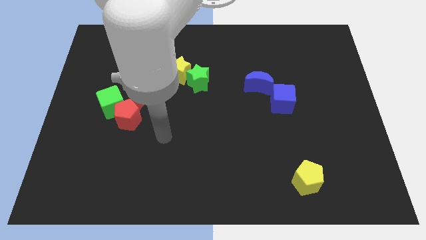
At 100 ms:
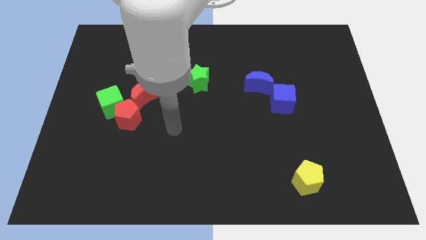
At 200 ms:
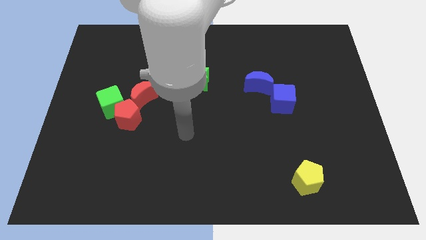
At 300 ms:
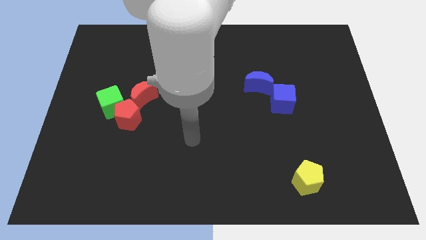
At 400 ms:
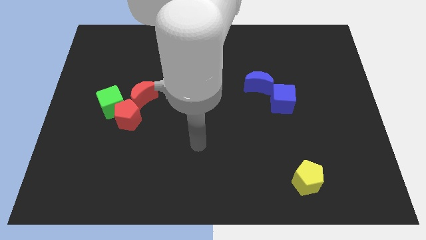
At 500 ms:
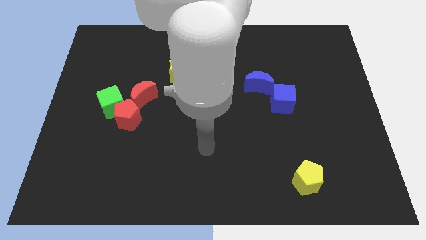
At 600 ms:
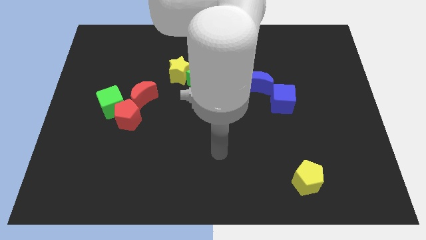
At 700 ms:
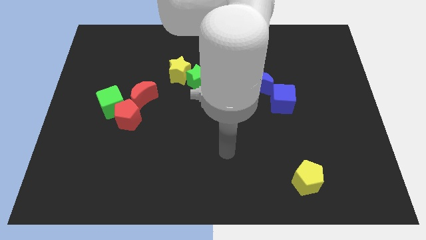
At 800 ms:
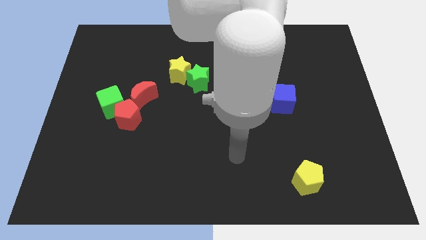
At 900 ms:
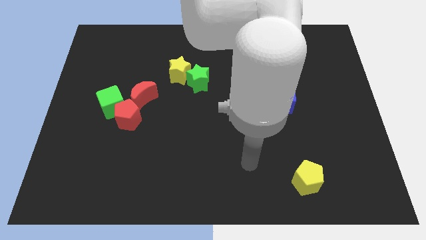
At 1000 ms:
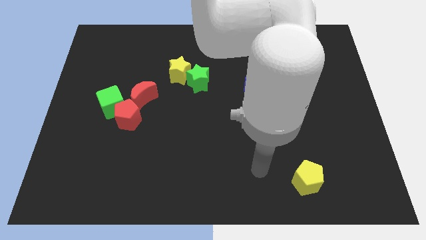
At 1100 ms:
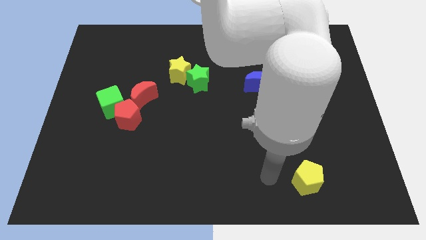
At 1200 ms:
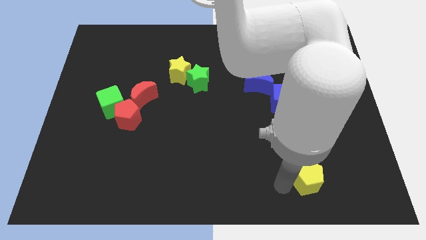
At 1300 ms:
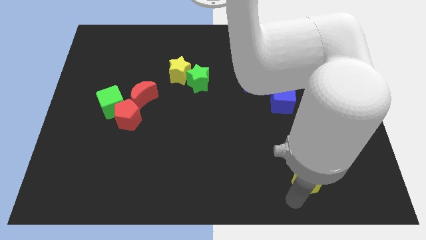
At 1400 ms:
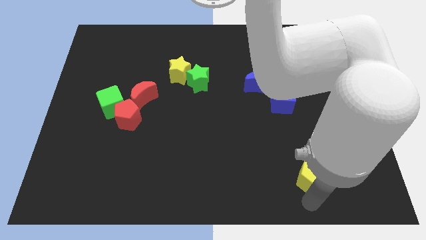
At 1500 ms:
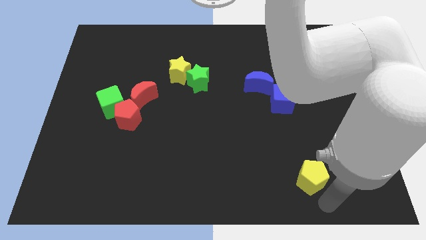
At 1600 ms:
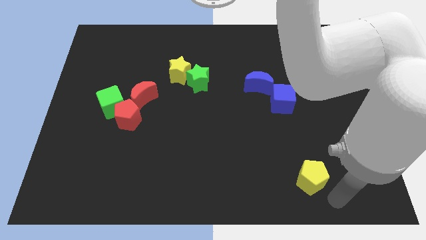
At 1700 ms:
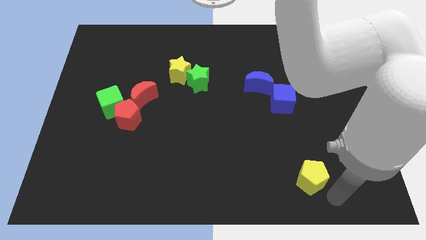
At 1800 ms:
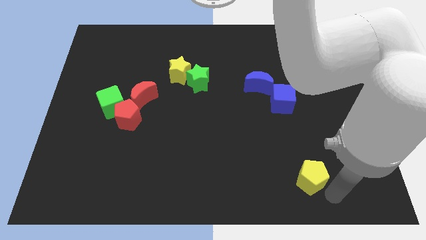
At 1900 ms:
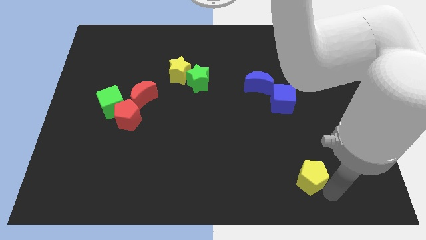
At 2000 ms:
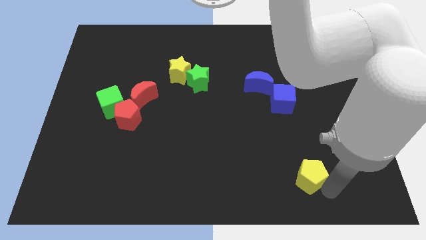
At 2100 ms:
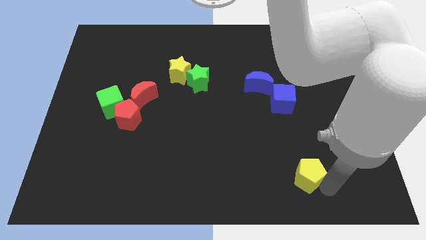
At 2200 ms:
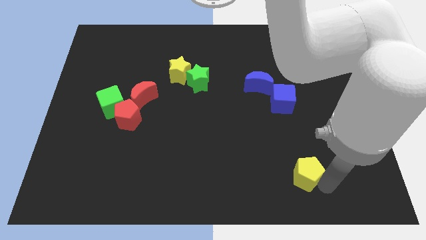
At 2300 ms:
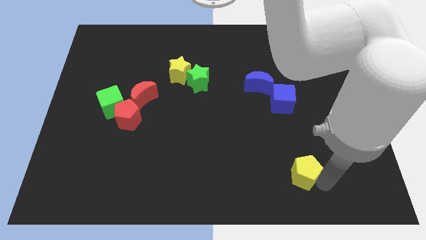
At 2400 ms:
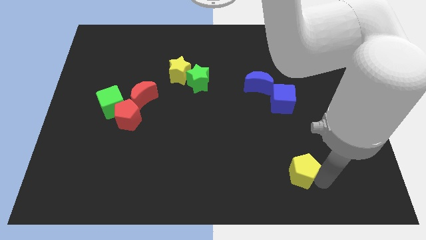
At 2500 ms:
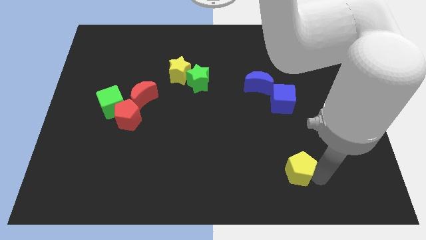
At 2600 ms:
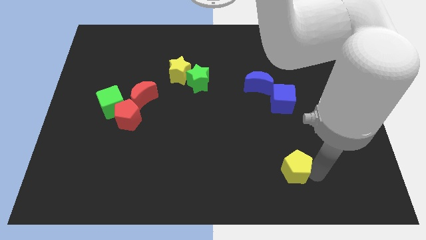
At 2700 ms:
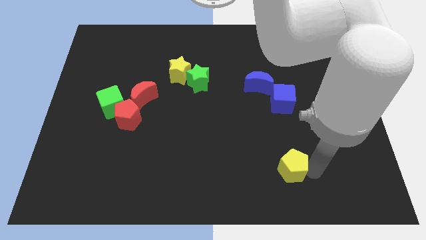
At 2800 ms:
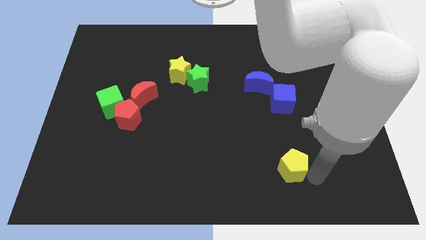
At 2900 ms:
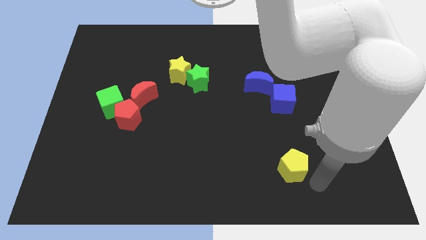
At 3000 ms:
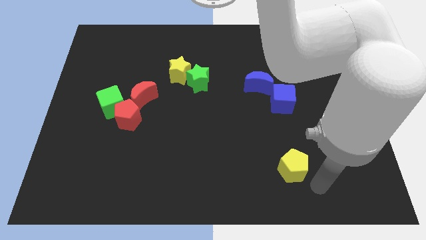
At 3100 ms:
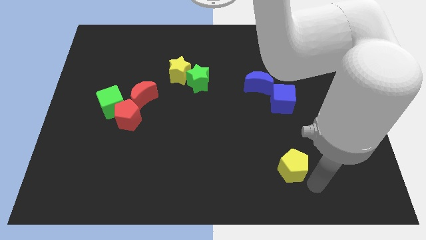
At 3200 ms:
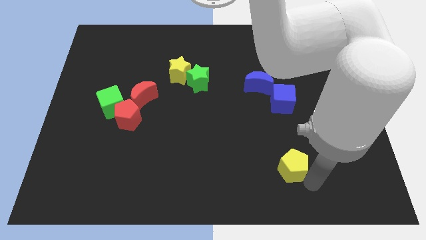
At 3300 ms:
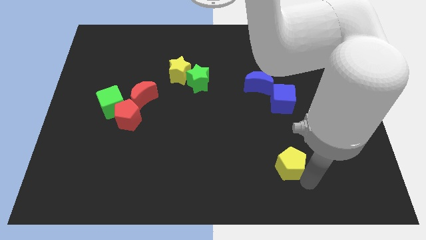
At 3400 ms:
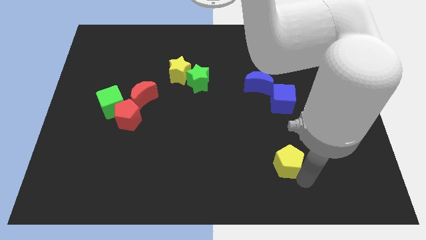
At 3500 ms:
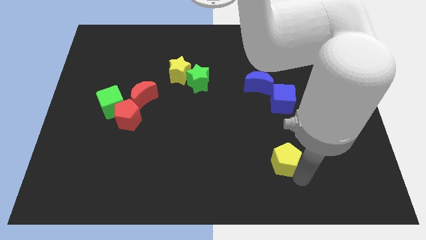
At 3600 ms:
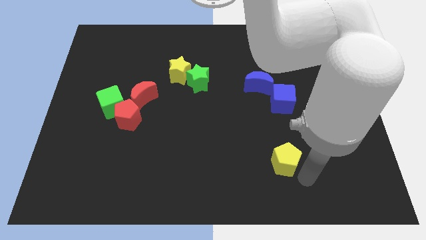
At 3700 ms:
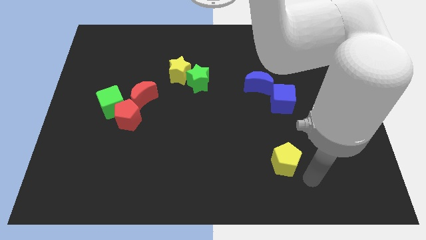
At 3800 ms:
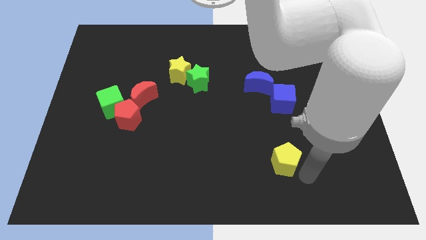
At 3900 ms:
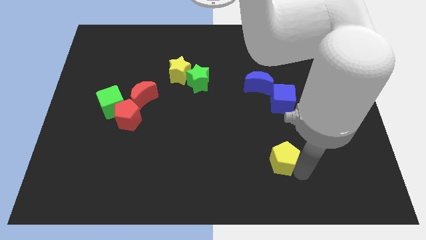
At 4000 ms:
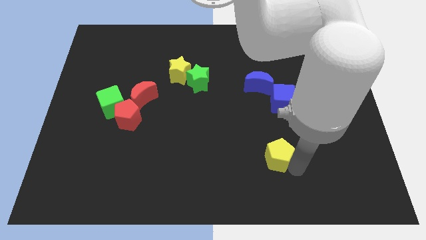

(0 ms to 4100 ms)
slightly move the yellow pentagon up and left diagonally

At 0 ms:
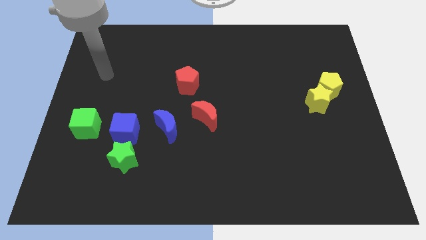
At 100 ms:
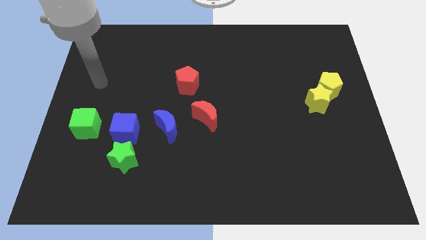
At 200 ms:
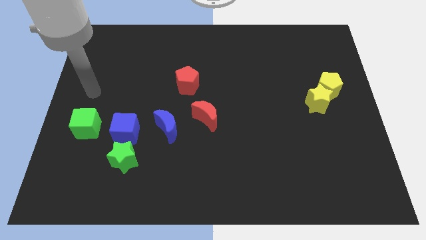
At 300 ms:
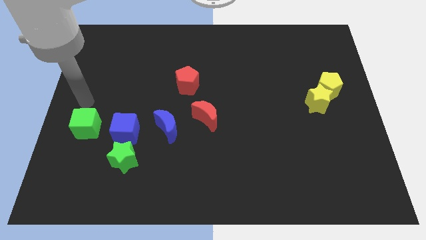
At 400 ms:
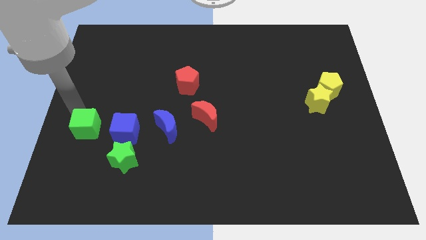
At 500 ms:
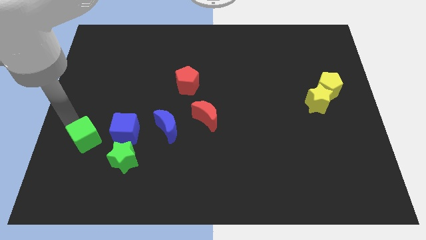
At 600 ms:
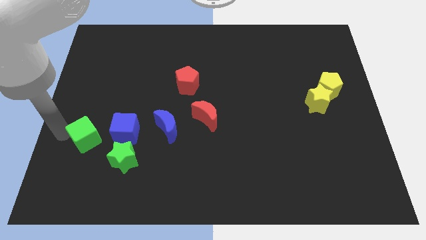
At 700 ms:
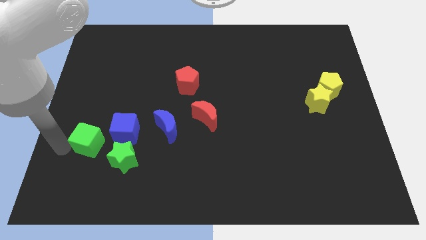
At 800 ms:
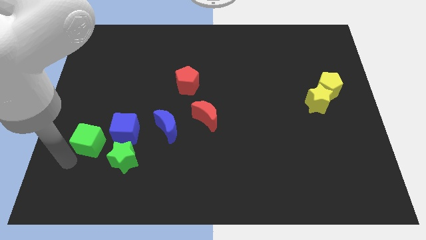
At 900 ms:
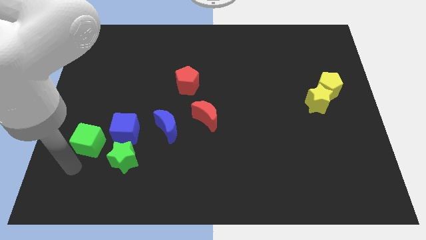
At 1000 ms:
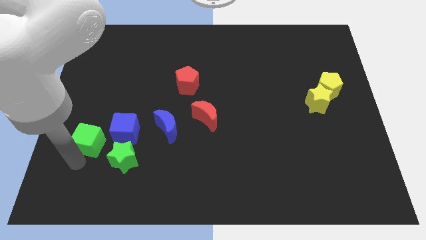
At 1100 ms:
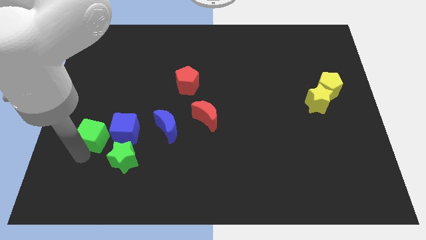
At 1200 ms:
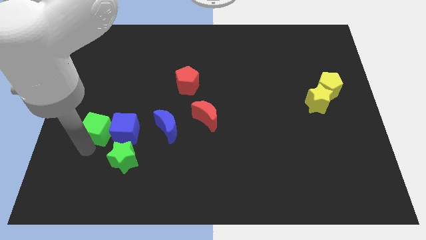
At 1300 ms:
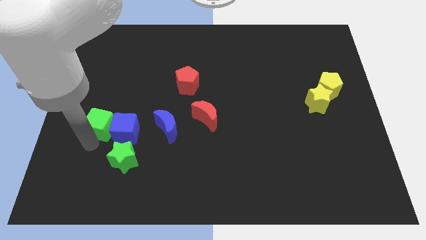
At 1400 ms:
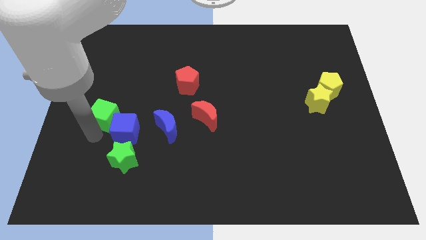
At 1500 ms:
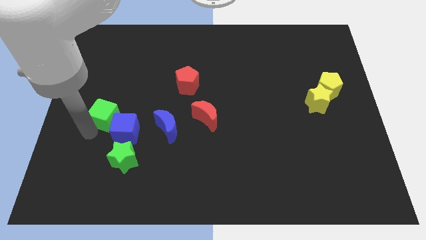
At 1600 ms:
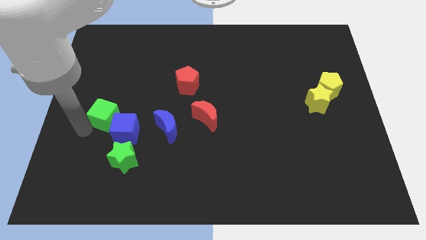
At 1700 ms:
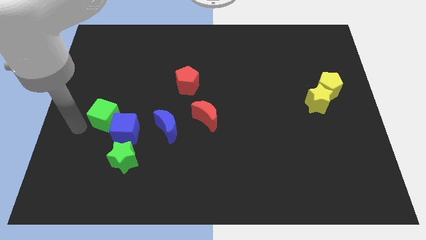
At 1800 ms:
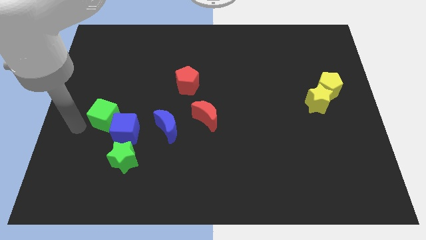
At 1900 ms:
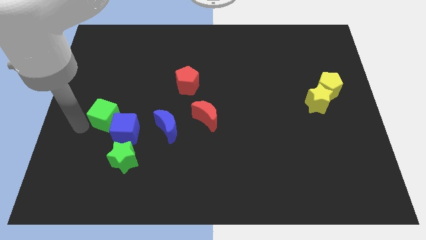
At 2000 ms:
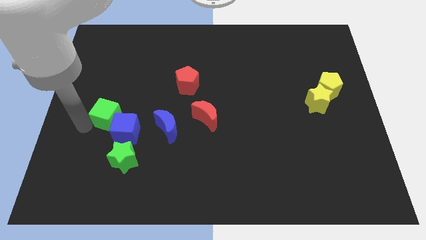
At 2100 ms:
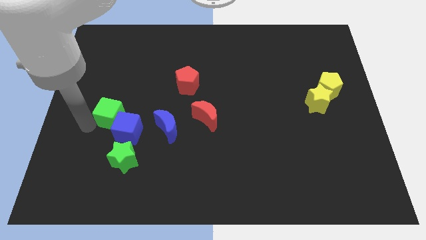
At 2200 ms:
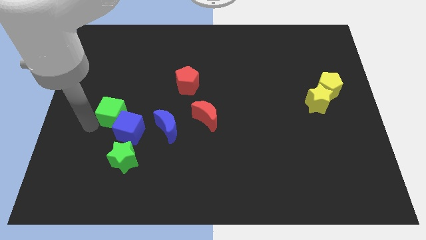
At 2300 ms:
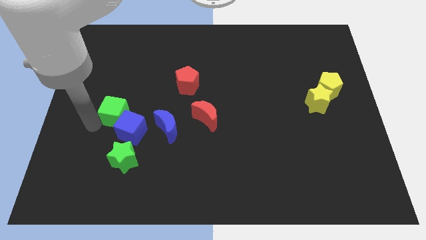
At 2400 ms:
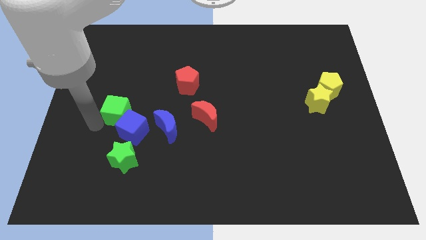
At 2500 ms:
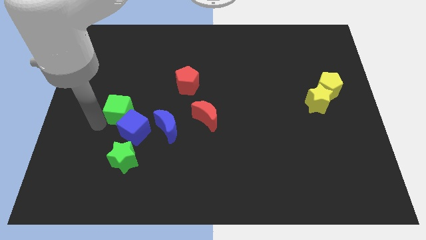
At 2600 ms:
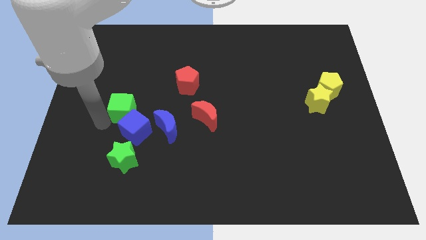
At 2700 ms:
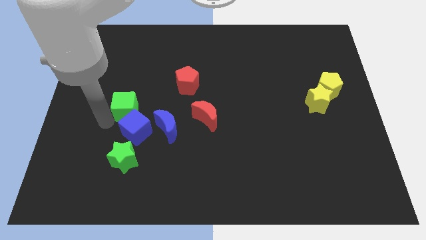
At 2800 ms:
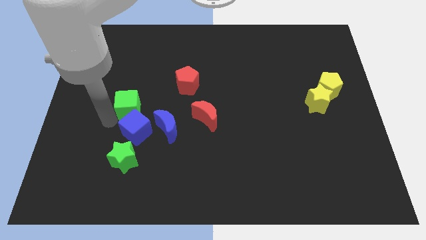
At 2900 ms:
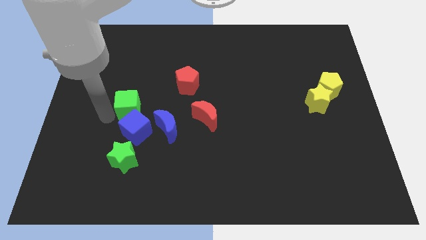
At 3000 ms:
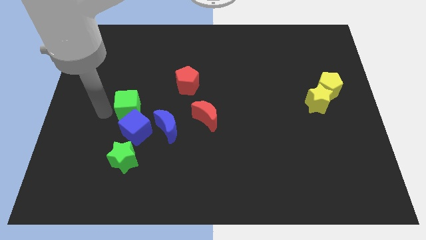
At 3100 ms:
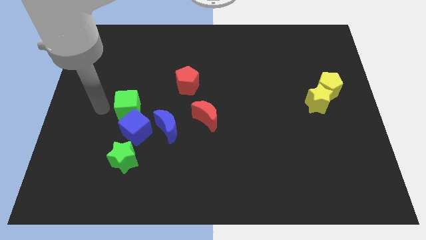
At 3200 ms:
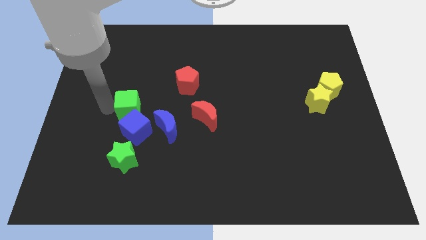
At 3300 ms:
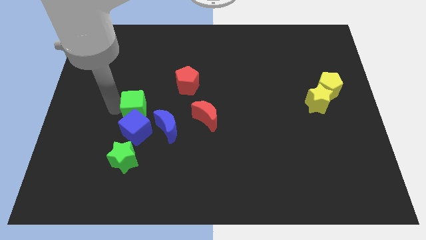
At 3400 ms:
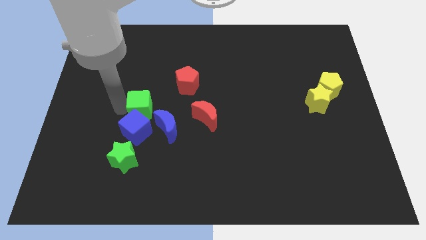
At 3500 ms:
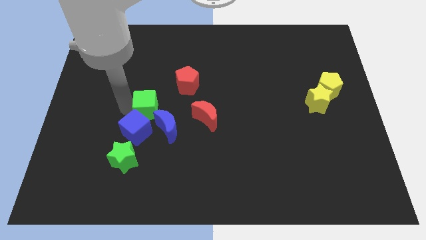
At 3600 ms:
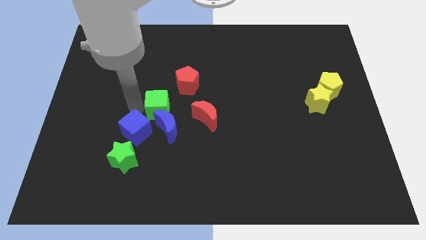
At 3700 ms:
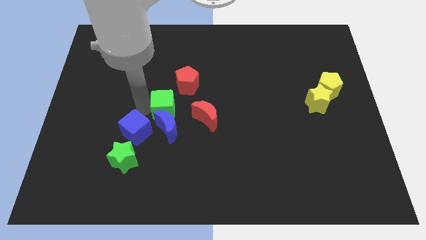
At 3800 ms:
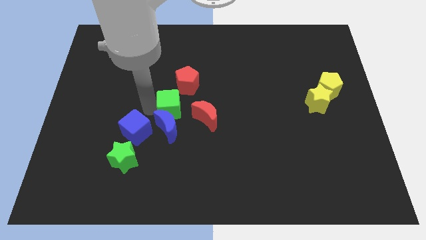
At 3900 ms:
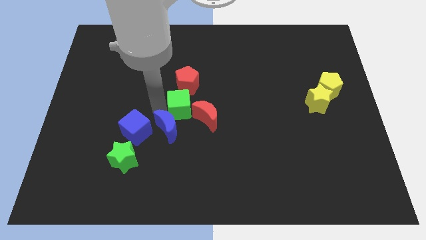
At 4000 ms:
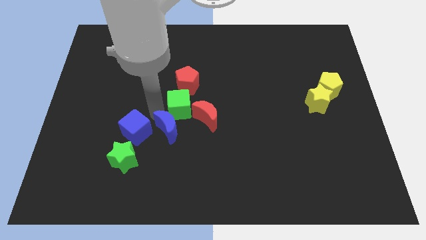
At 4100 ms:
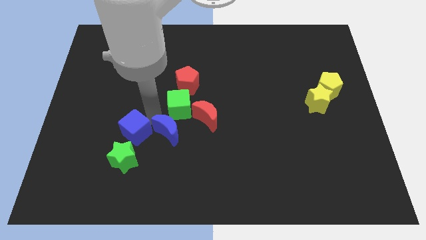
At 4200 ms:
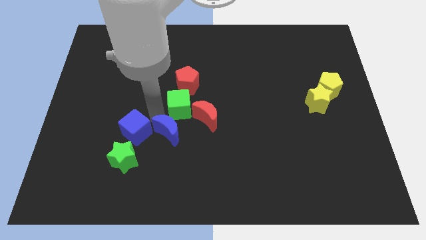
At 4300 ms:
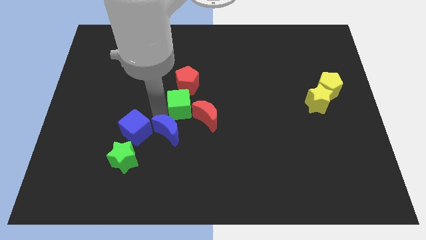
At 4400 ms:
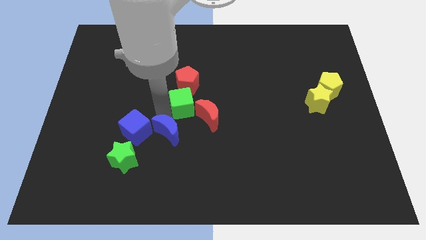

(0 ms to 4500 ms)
slide the green cube to the right
